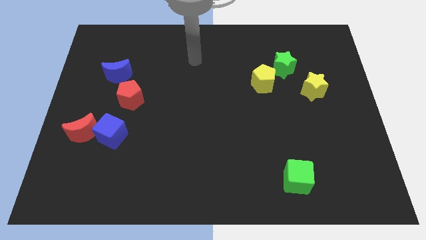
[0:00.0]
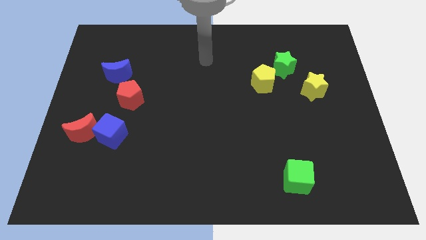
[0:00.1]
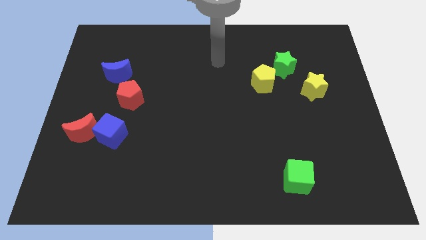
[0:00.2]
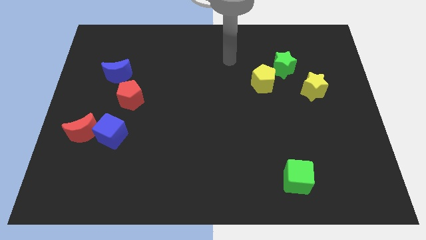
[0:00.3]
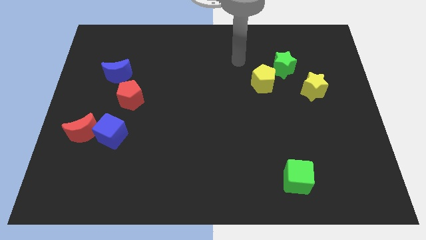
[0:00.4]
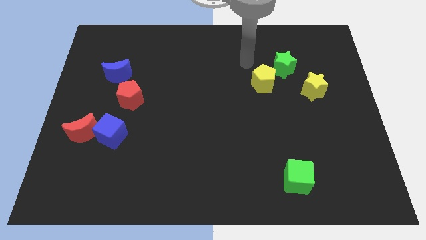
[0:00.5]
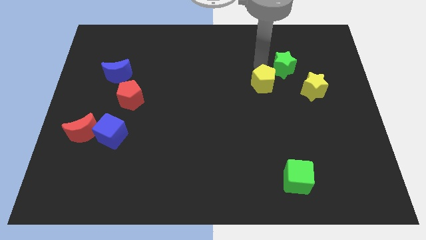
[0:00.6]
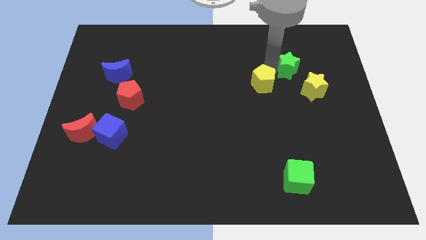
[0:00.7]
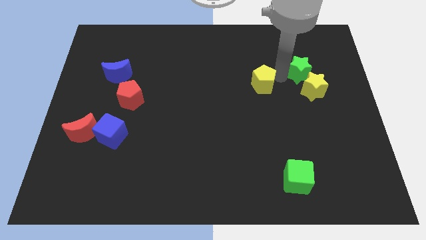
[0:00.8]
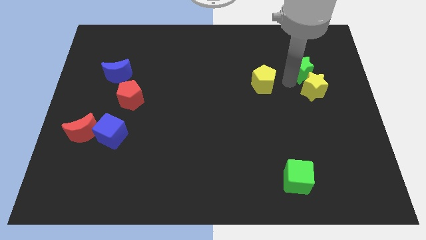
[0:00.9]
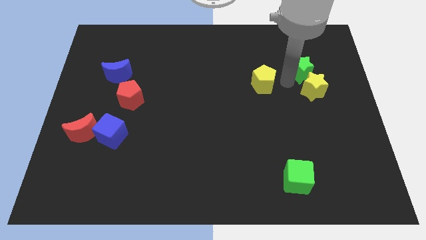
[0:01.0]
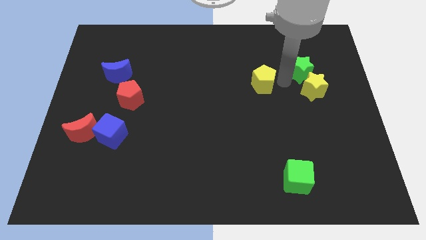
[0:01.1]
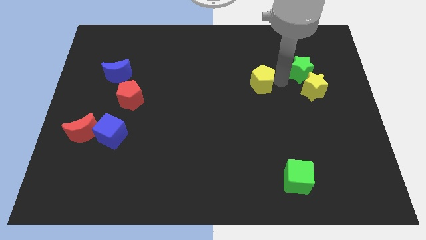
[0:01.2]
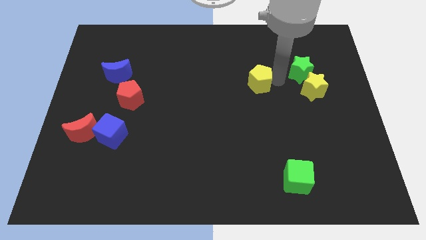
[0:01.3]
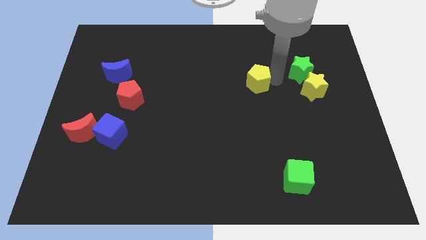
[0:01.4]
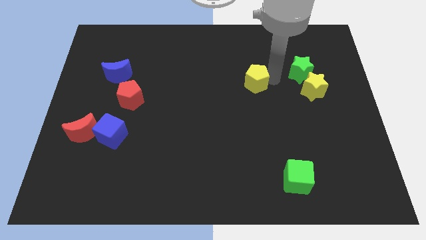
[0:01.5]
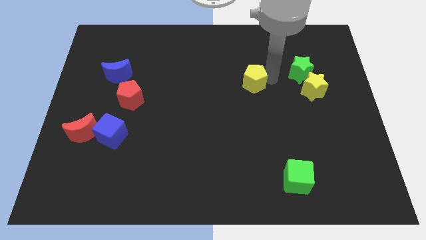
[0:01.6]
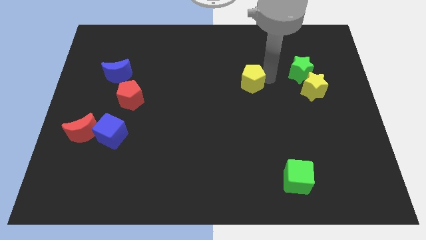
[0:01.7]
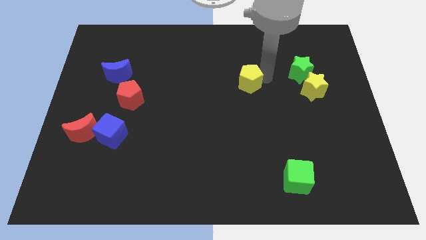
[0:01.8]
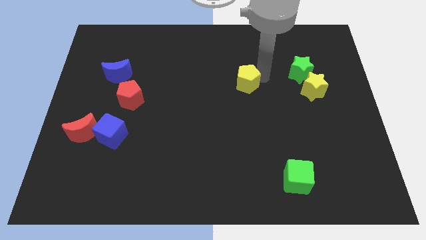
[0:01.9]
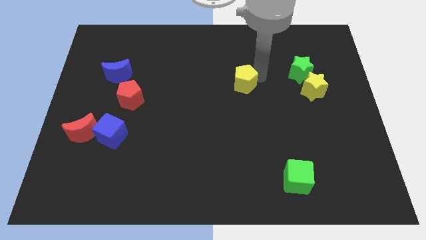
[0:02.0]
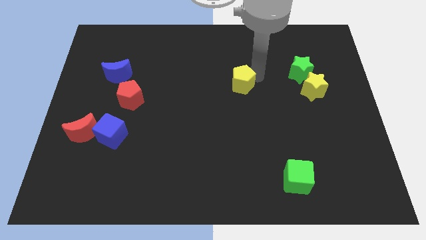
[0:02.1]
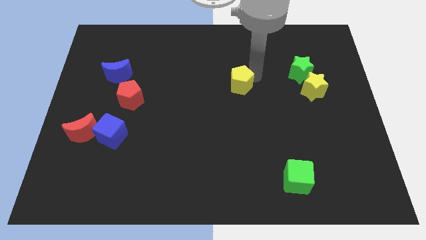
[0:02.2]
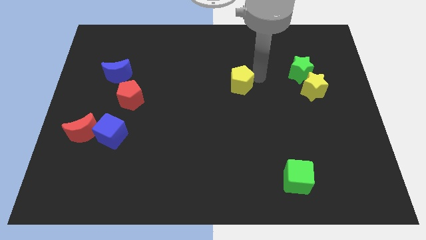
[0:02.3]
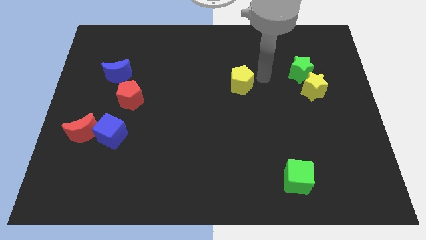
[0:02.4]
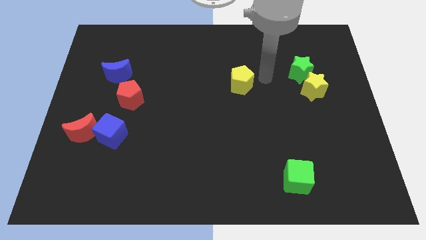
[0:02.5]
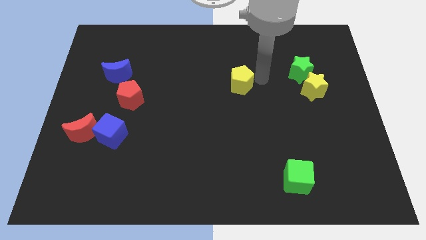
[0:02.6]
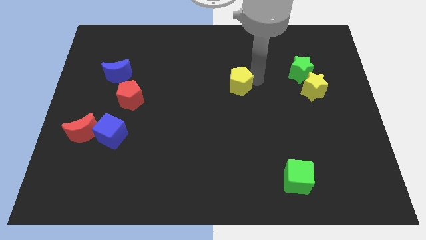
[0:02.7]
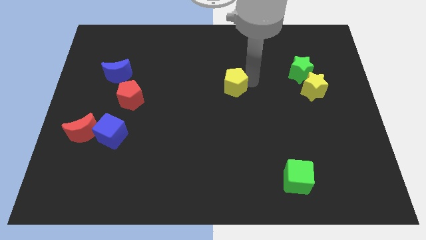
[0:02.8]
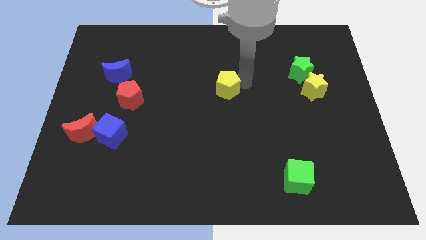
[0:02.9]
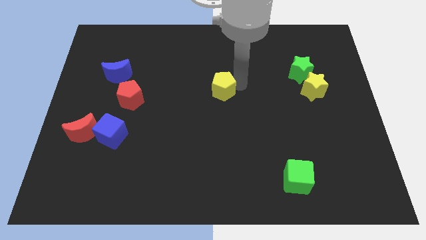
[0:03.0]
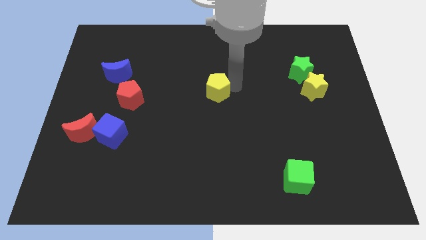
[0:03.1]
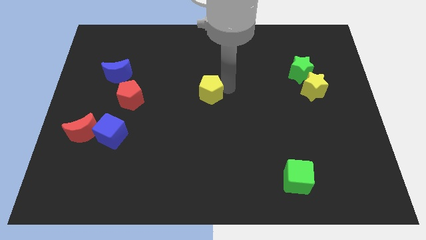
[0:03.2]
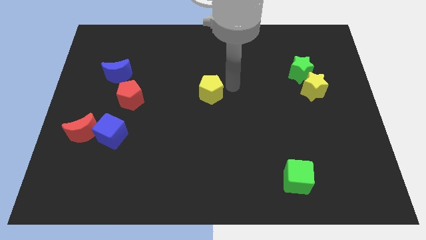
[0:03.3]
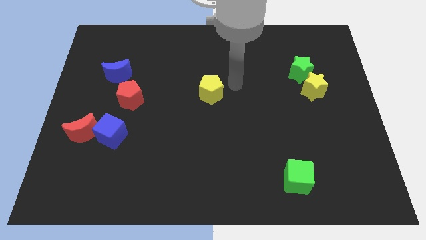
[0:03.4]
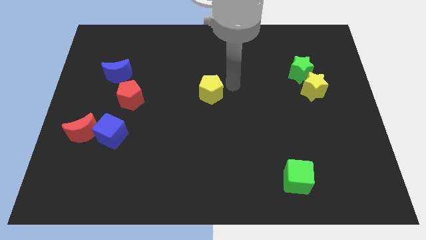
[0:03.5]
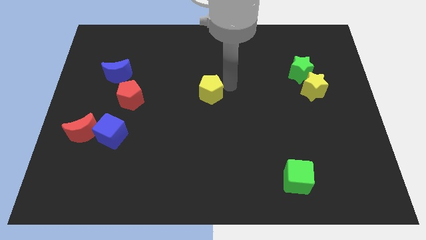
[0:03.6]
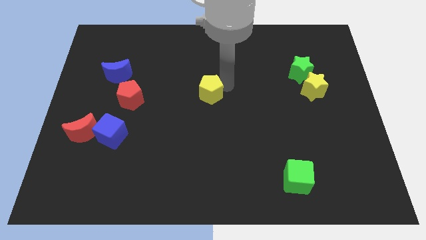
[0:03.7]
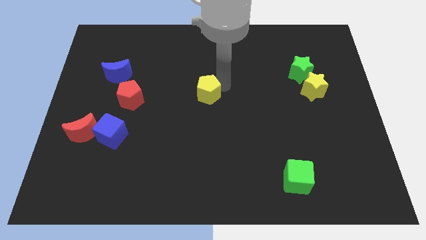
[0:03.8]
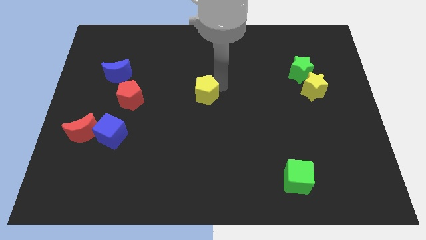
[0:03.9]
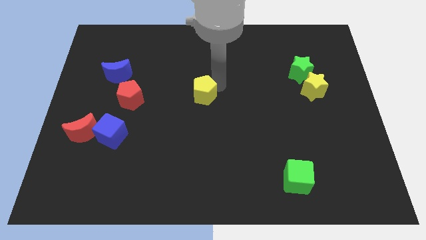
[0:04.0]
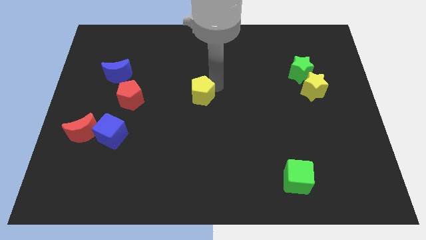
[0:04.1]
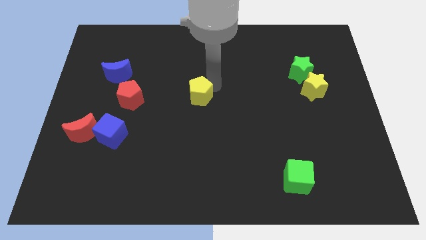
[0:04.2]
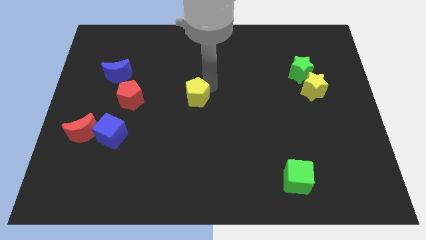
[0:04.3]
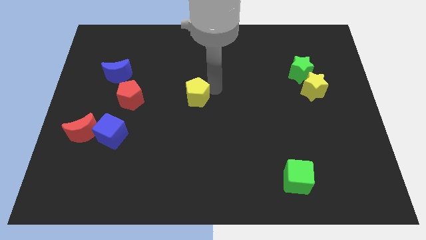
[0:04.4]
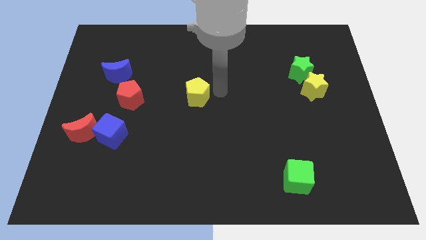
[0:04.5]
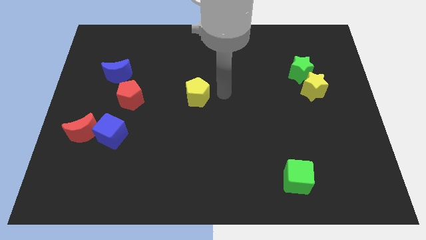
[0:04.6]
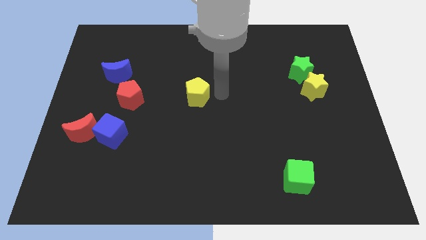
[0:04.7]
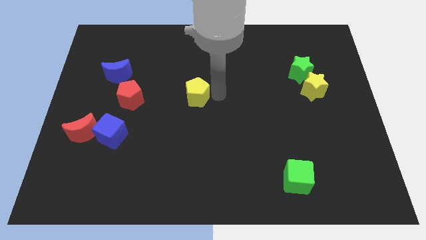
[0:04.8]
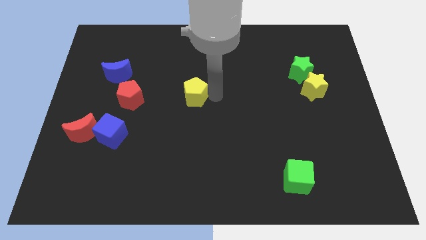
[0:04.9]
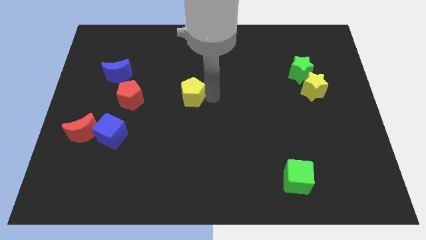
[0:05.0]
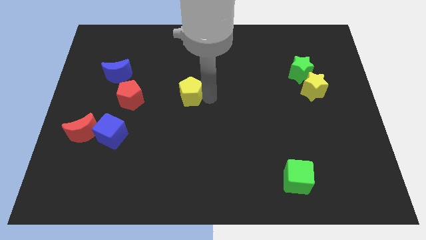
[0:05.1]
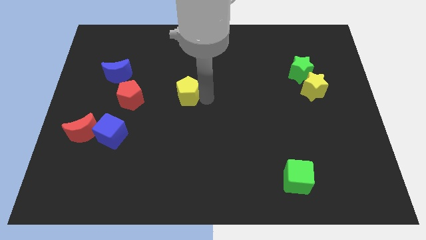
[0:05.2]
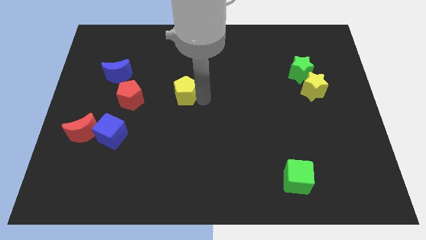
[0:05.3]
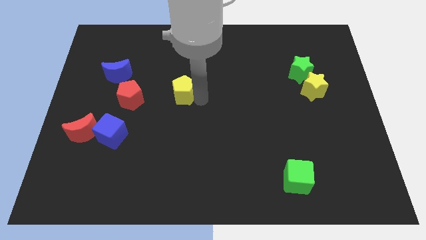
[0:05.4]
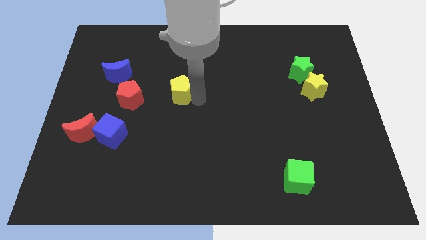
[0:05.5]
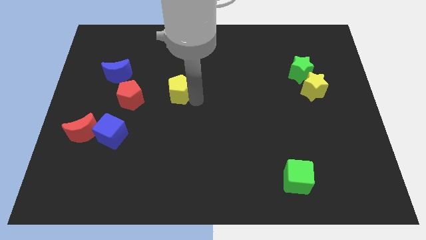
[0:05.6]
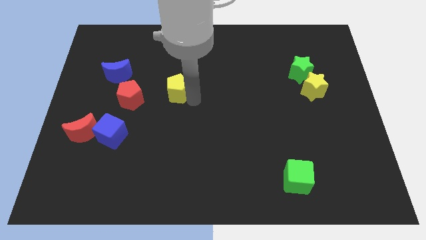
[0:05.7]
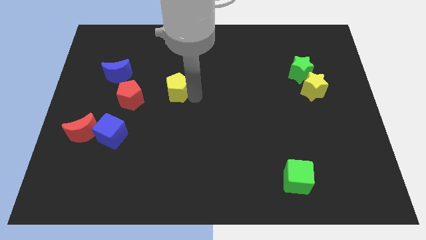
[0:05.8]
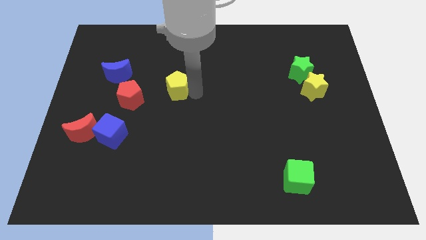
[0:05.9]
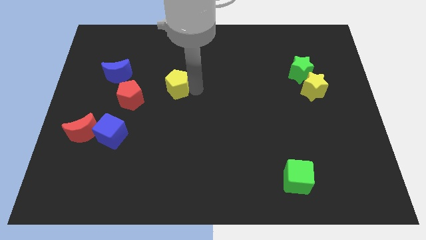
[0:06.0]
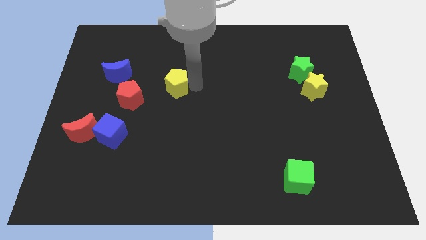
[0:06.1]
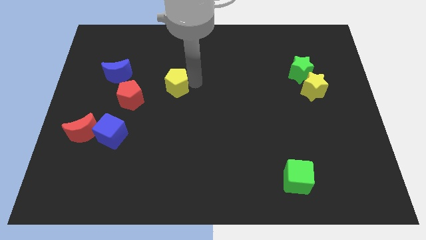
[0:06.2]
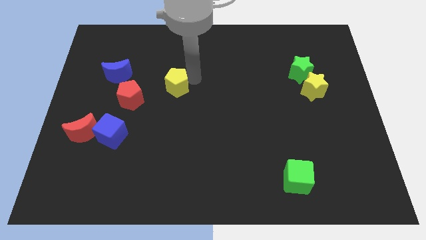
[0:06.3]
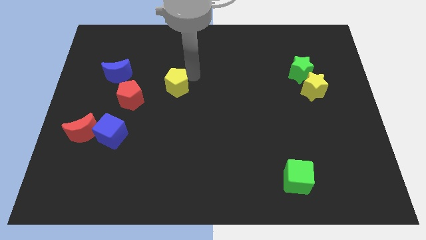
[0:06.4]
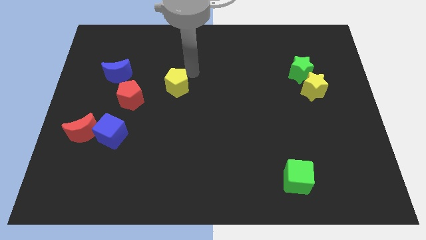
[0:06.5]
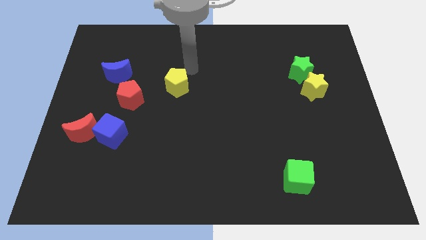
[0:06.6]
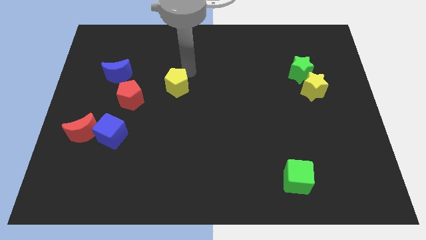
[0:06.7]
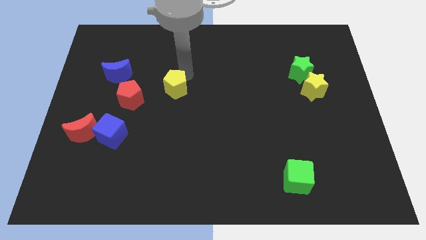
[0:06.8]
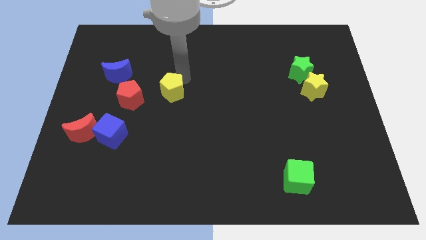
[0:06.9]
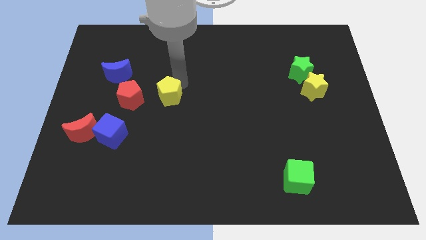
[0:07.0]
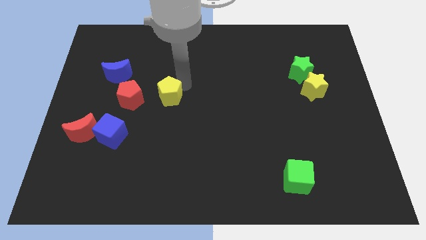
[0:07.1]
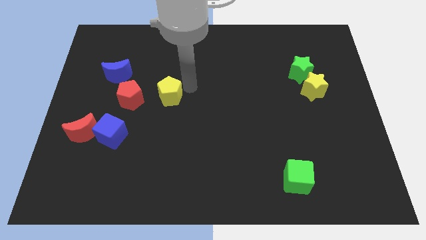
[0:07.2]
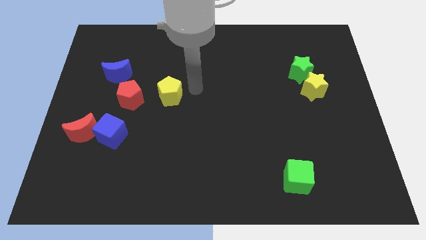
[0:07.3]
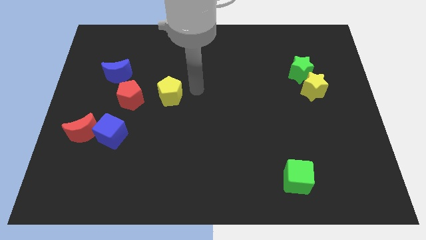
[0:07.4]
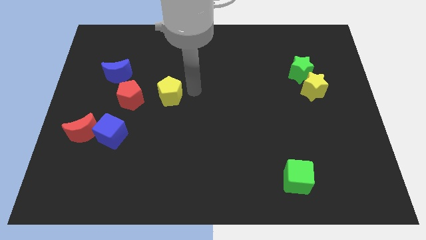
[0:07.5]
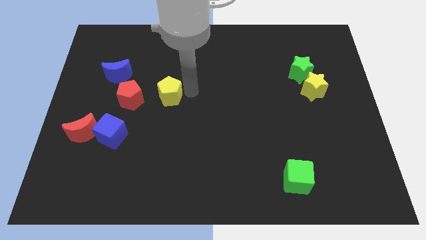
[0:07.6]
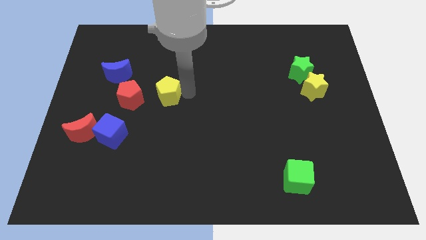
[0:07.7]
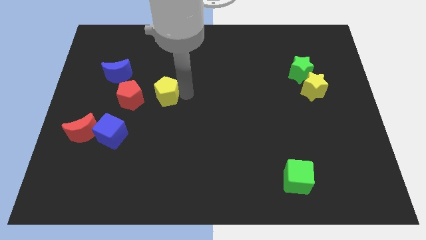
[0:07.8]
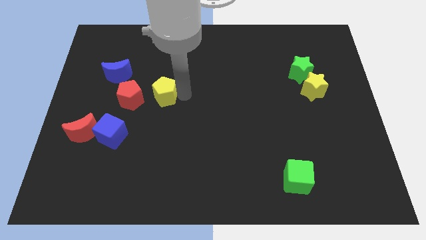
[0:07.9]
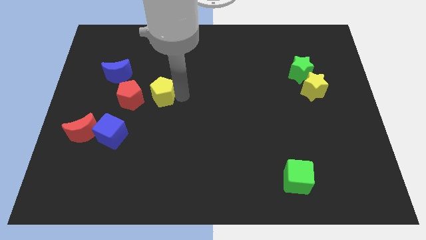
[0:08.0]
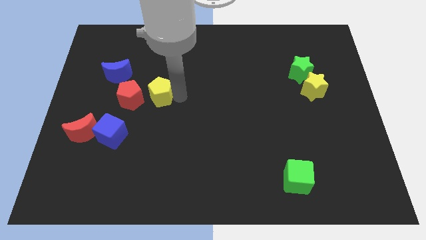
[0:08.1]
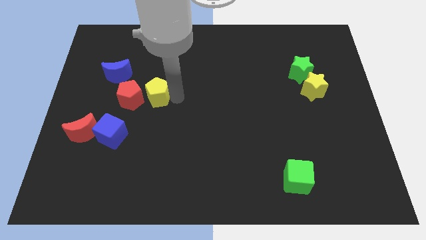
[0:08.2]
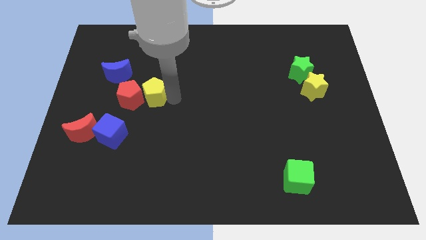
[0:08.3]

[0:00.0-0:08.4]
push the yellow pentagon next to the red pentagon
